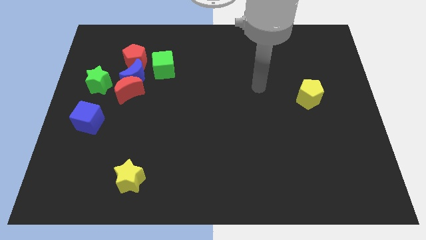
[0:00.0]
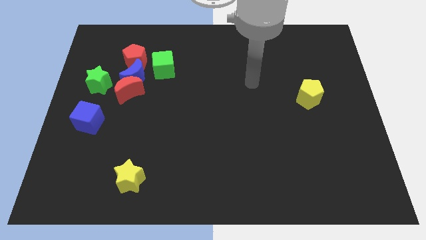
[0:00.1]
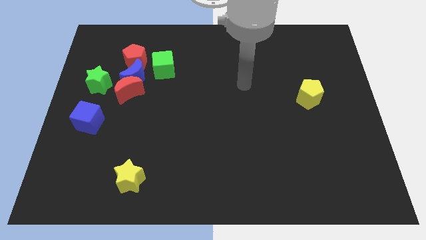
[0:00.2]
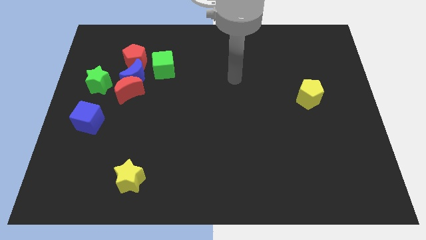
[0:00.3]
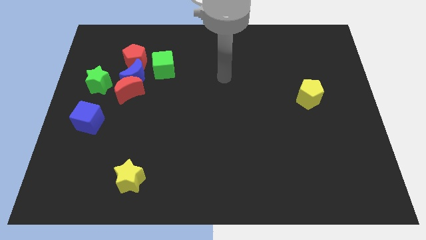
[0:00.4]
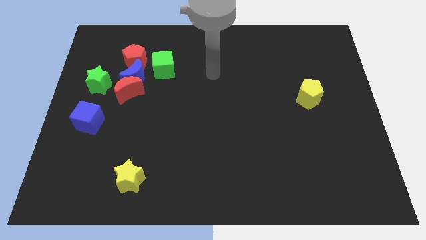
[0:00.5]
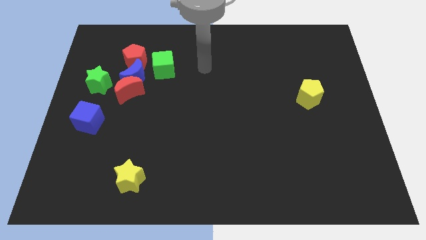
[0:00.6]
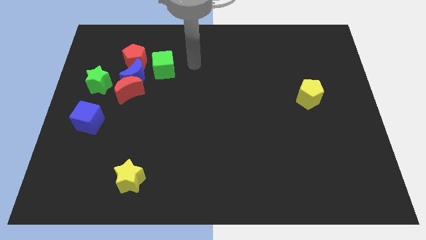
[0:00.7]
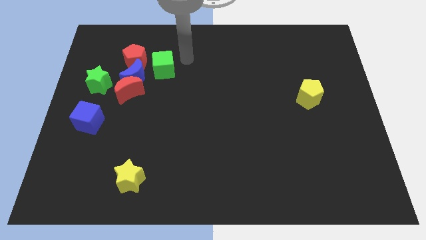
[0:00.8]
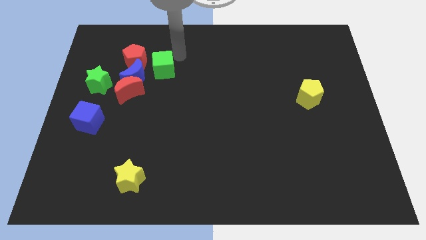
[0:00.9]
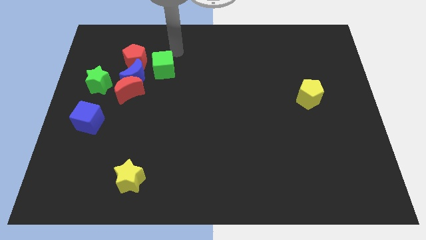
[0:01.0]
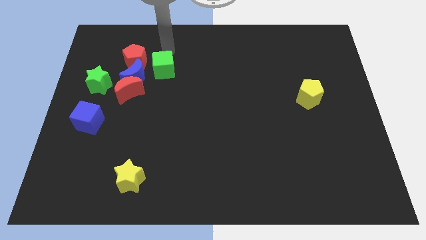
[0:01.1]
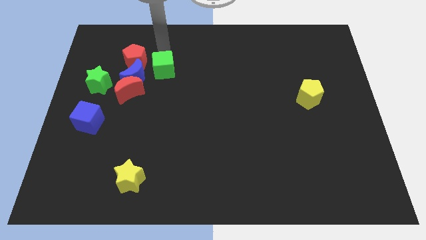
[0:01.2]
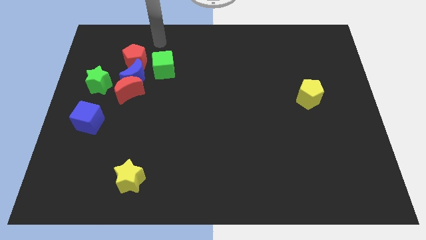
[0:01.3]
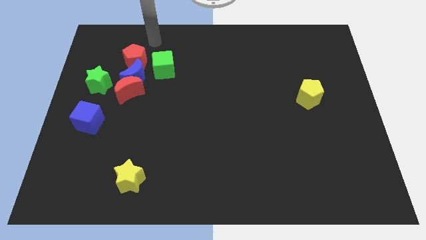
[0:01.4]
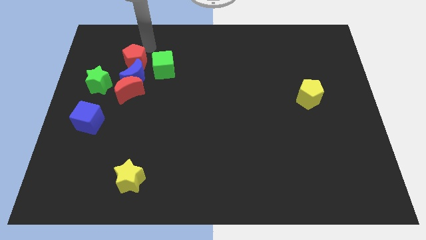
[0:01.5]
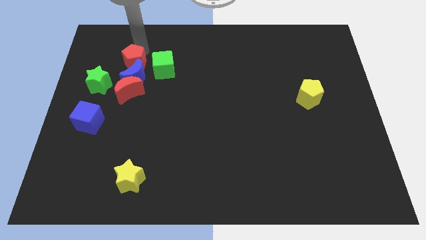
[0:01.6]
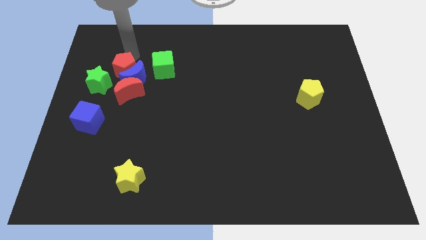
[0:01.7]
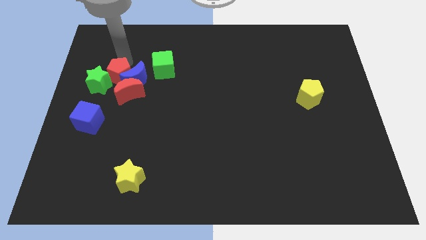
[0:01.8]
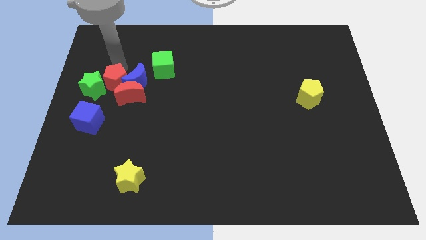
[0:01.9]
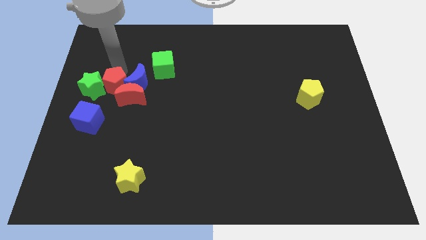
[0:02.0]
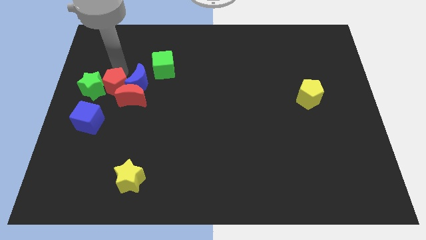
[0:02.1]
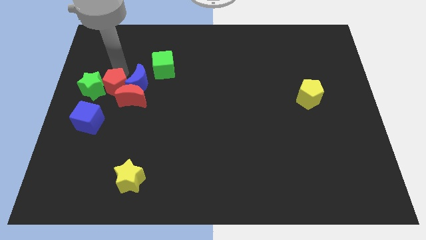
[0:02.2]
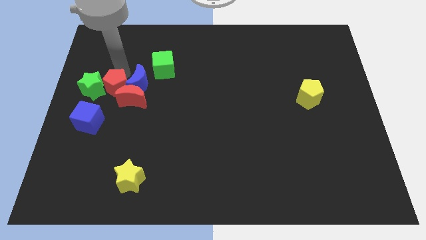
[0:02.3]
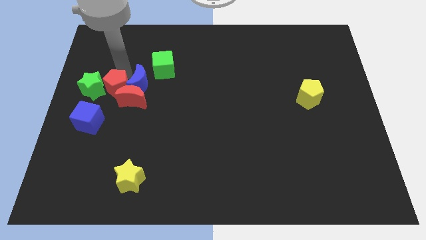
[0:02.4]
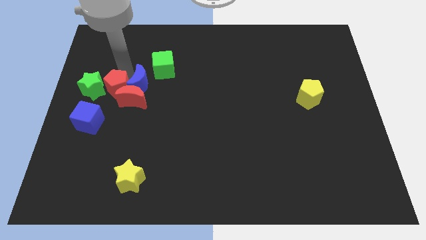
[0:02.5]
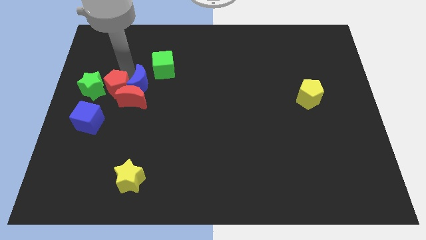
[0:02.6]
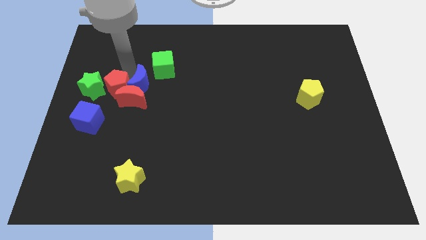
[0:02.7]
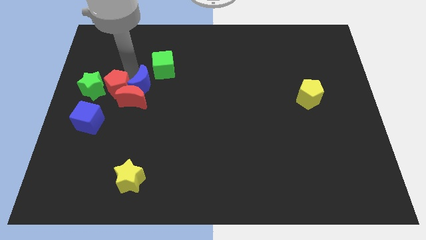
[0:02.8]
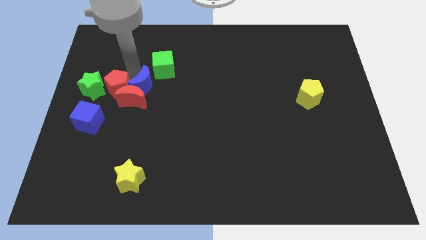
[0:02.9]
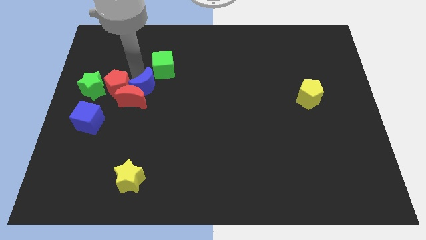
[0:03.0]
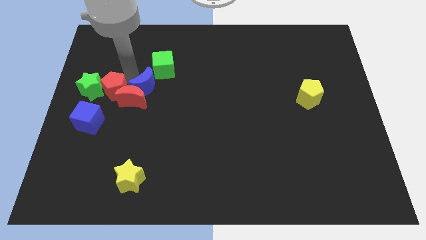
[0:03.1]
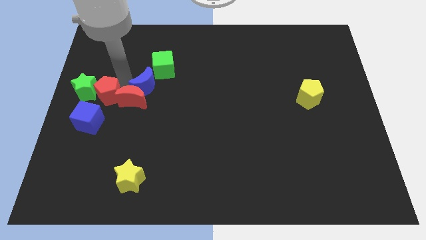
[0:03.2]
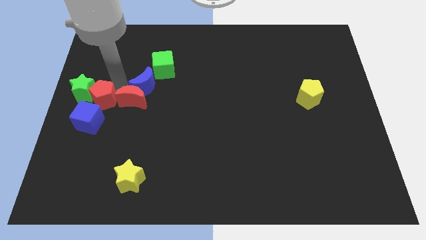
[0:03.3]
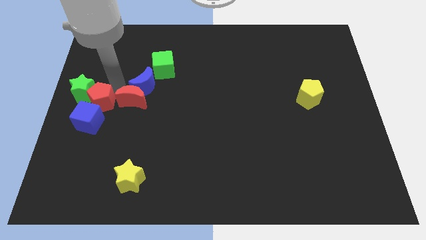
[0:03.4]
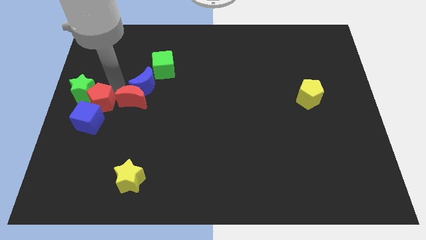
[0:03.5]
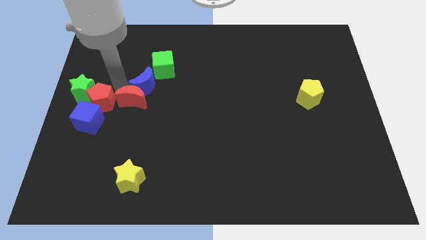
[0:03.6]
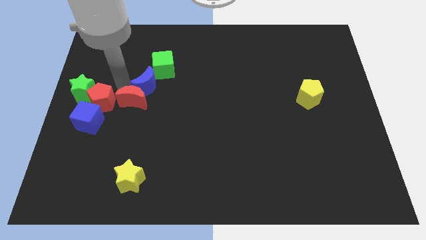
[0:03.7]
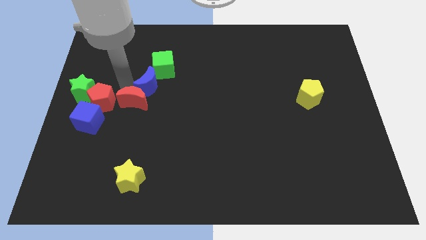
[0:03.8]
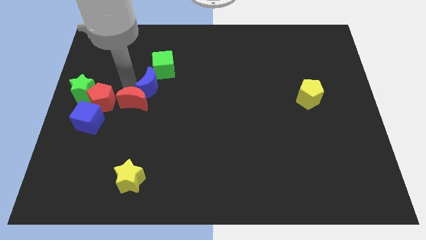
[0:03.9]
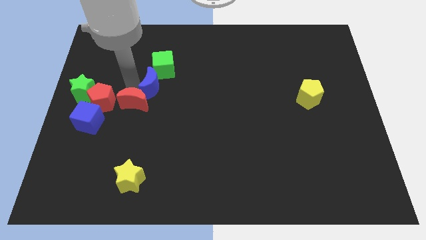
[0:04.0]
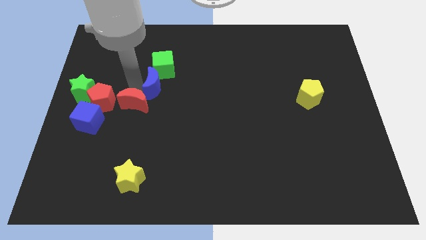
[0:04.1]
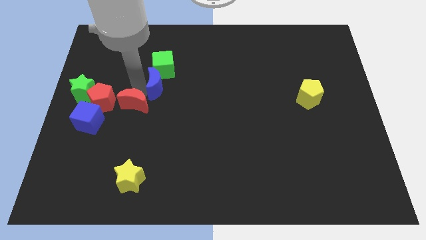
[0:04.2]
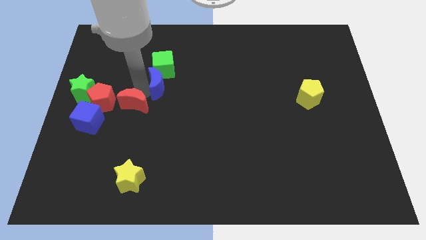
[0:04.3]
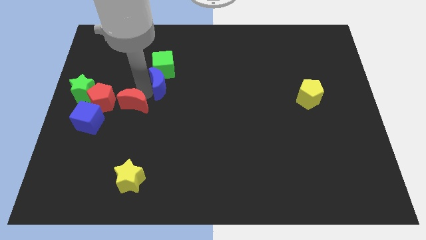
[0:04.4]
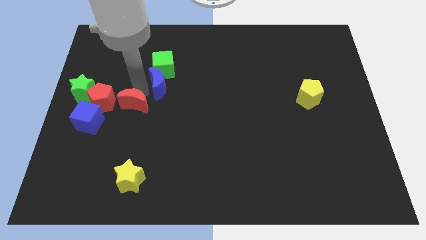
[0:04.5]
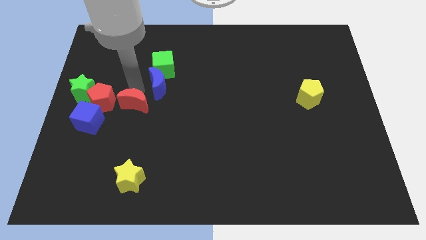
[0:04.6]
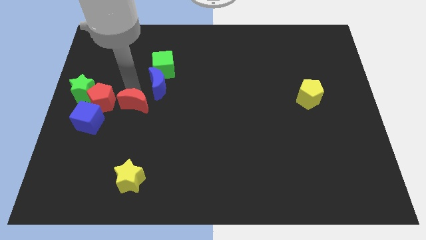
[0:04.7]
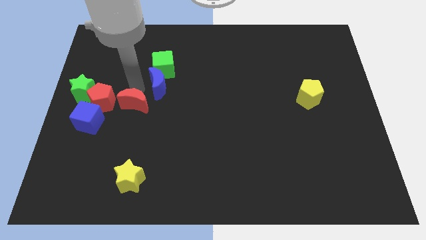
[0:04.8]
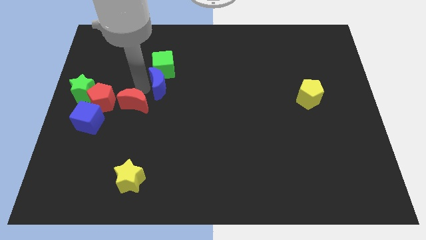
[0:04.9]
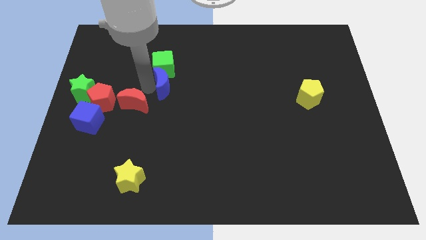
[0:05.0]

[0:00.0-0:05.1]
move the blue moon away from the group of blocks

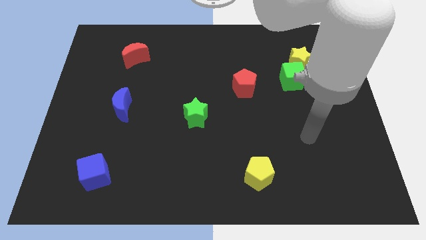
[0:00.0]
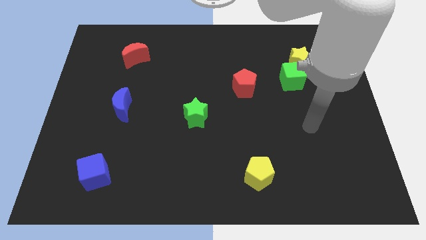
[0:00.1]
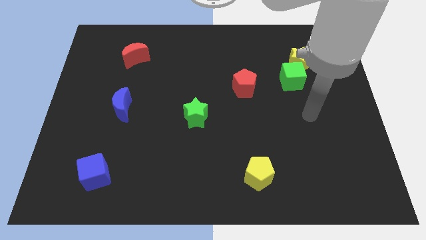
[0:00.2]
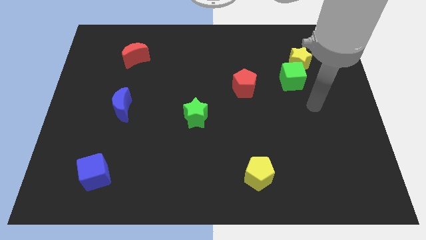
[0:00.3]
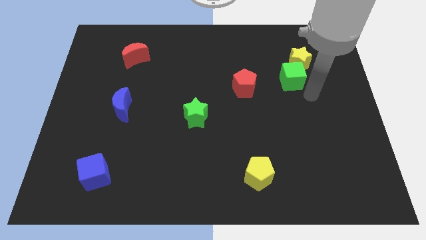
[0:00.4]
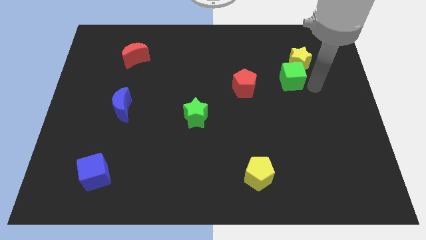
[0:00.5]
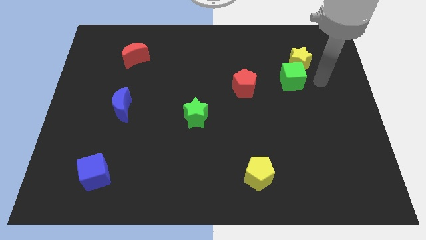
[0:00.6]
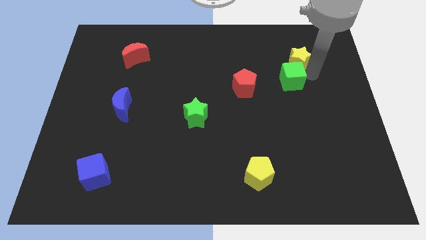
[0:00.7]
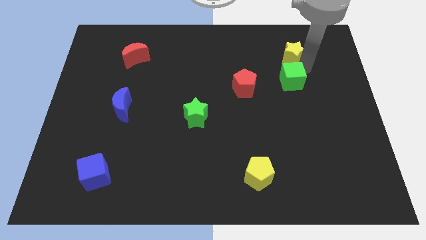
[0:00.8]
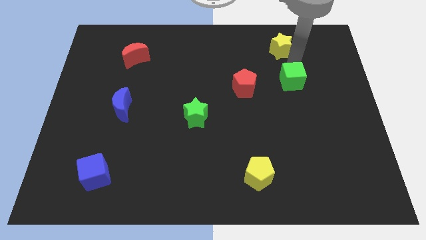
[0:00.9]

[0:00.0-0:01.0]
move the green cube away from the yellow star

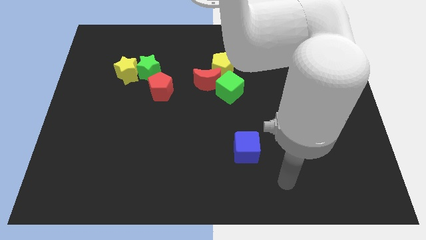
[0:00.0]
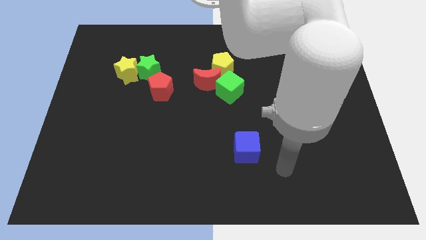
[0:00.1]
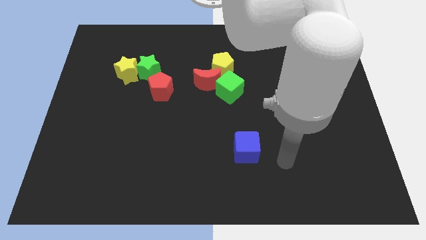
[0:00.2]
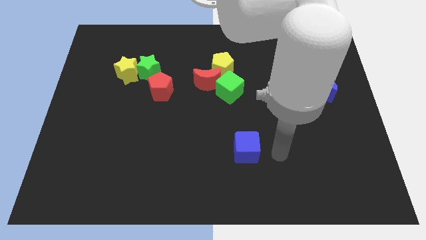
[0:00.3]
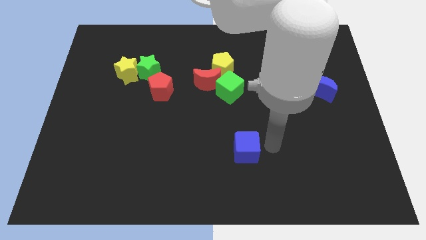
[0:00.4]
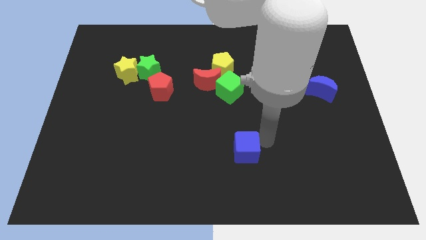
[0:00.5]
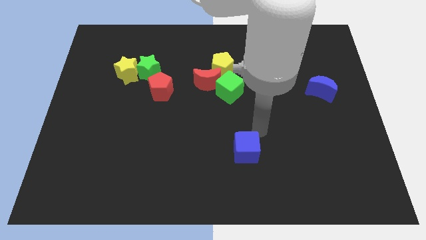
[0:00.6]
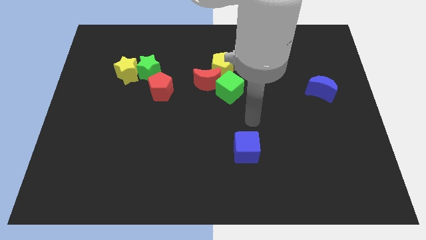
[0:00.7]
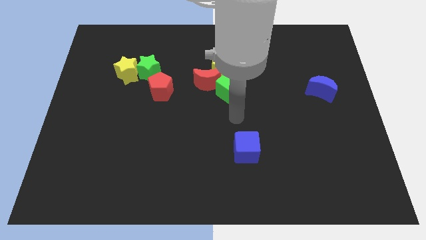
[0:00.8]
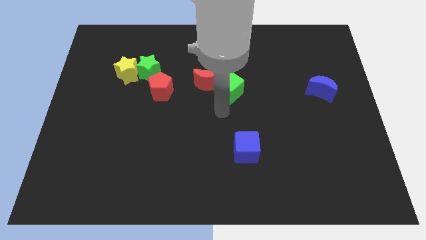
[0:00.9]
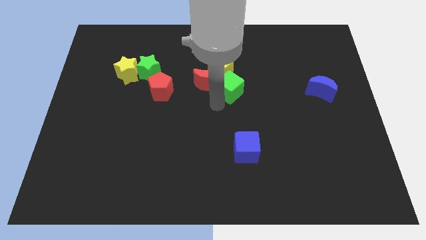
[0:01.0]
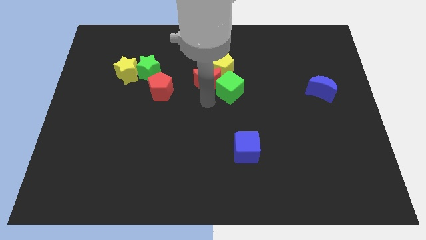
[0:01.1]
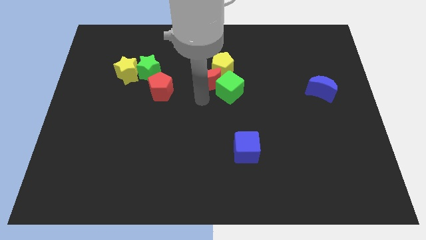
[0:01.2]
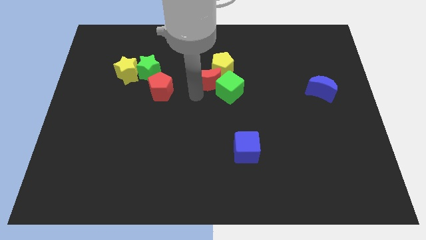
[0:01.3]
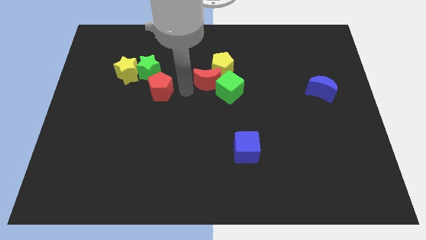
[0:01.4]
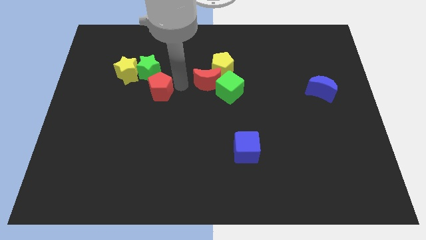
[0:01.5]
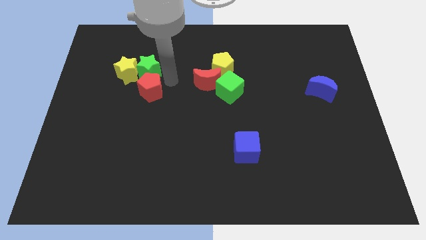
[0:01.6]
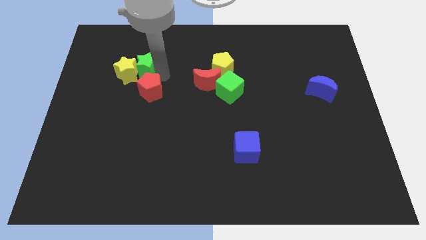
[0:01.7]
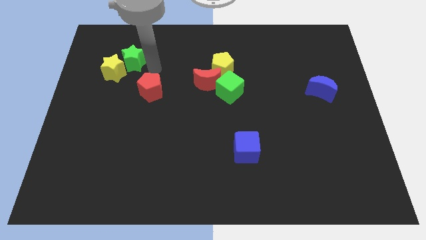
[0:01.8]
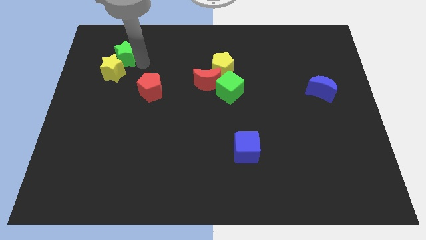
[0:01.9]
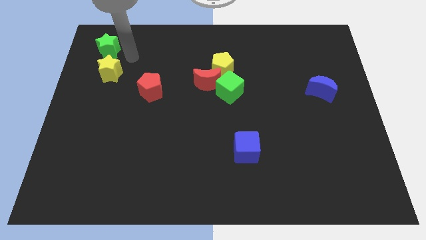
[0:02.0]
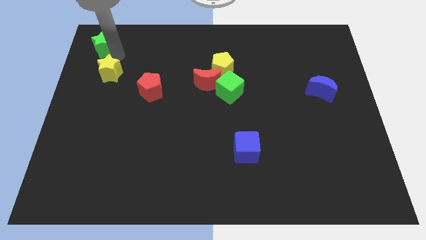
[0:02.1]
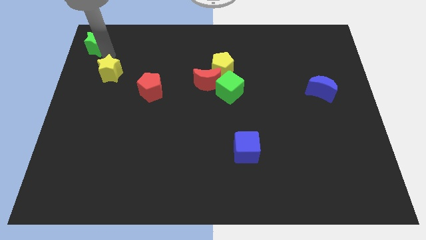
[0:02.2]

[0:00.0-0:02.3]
move the yellow star away from the green star

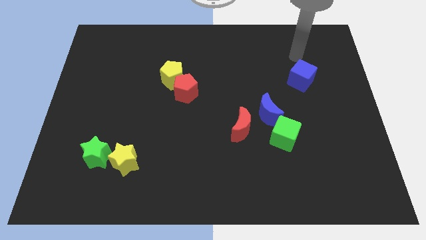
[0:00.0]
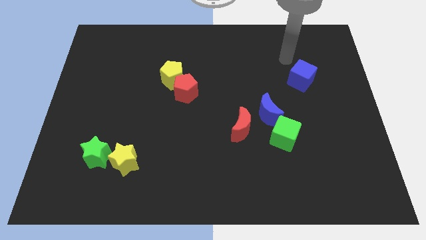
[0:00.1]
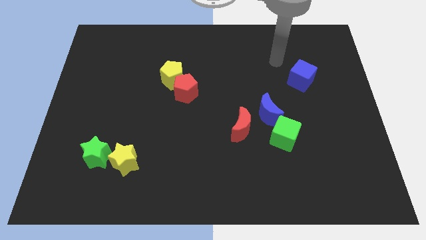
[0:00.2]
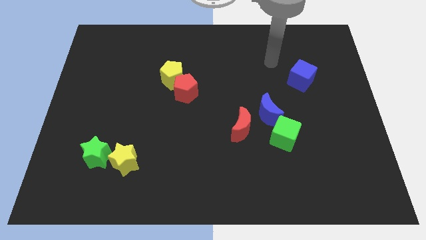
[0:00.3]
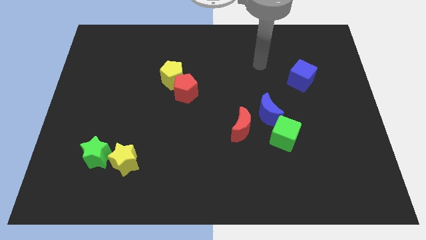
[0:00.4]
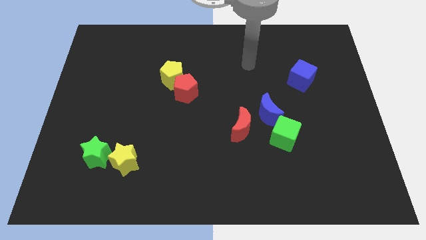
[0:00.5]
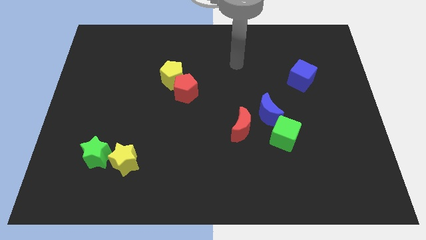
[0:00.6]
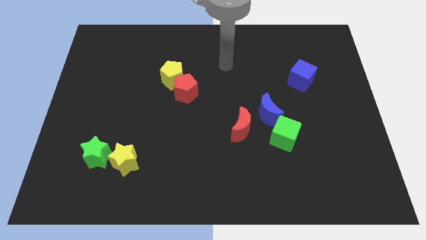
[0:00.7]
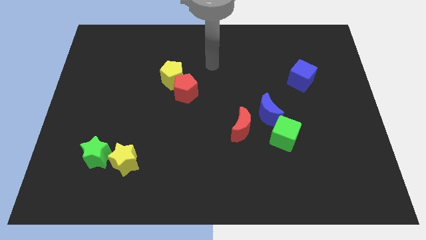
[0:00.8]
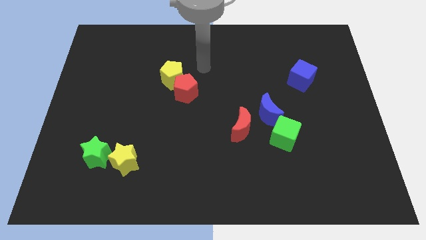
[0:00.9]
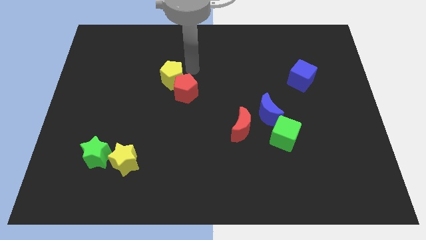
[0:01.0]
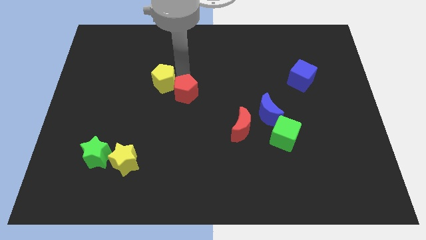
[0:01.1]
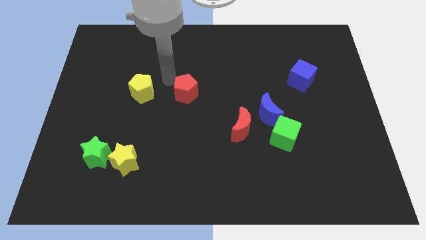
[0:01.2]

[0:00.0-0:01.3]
move the red pentagon away from the yellow pentagon
